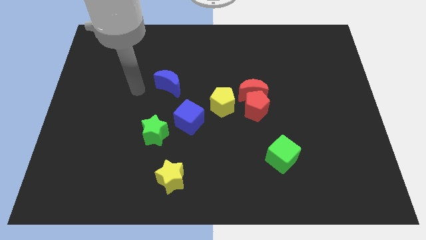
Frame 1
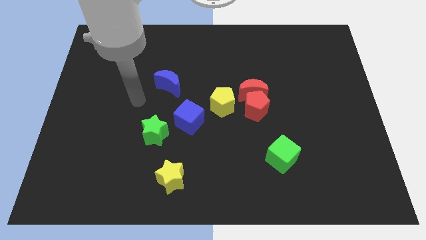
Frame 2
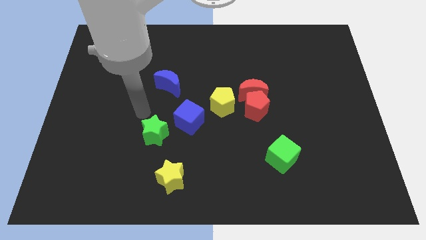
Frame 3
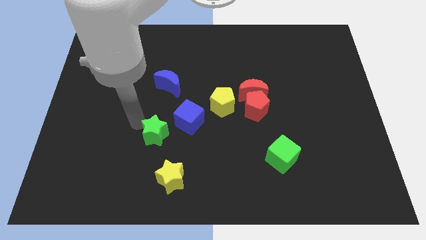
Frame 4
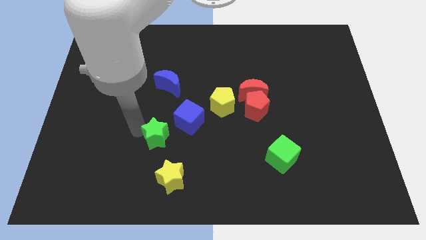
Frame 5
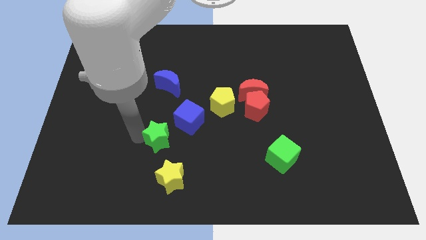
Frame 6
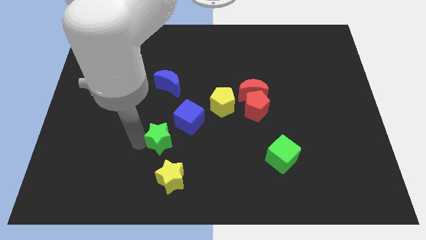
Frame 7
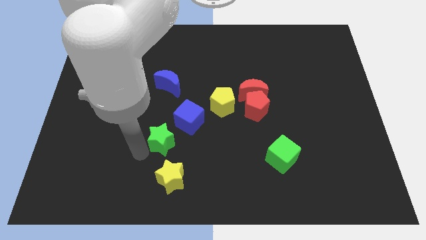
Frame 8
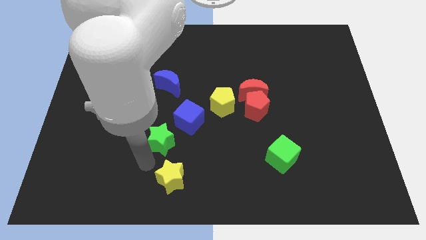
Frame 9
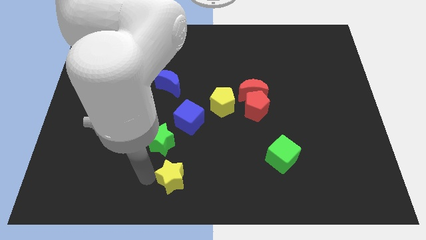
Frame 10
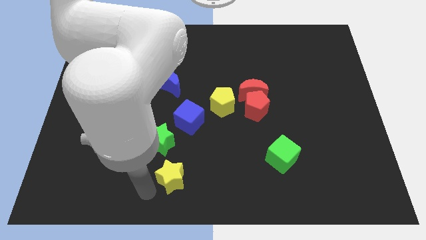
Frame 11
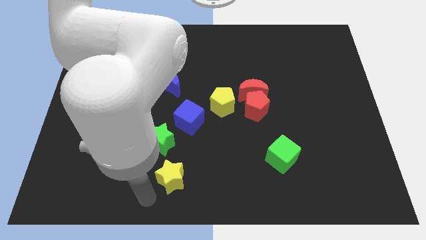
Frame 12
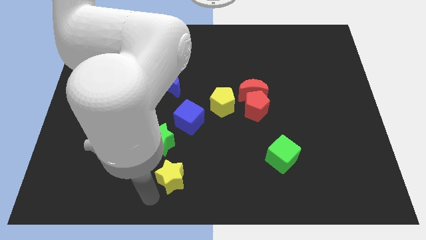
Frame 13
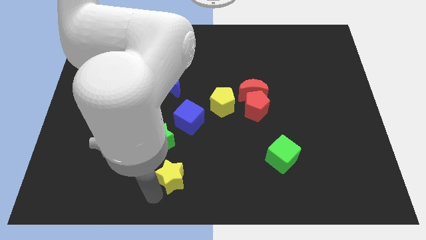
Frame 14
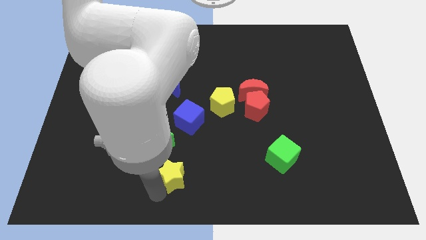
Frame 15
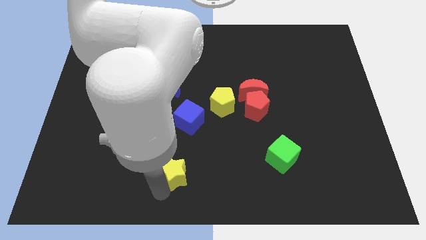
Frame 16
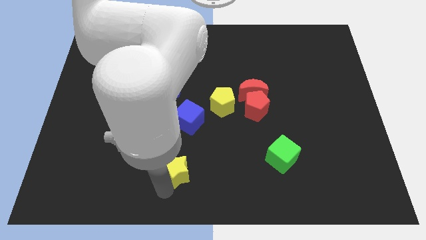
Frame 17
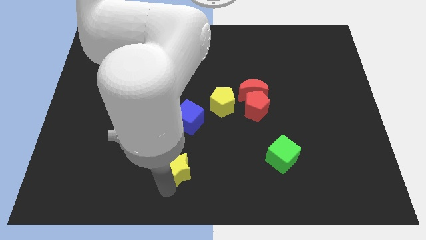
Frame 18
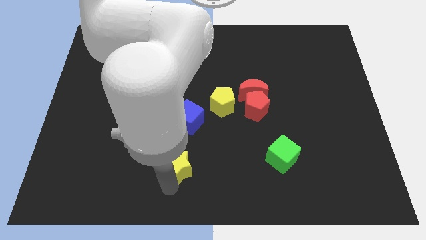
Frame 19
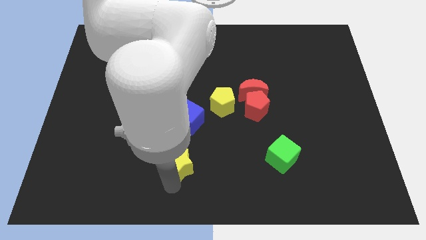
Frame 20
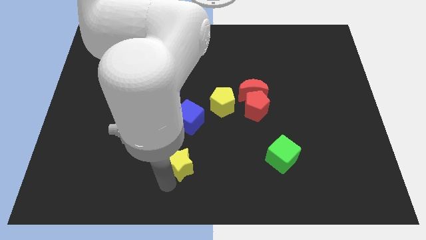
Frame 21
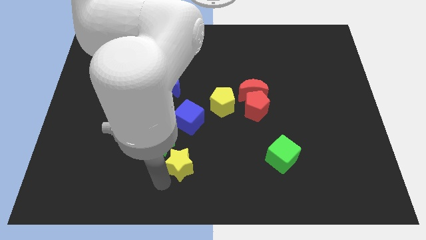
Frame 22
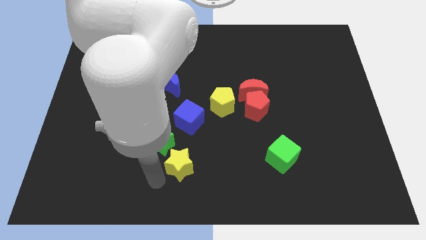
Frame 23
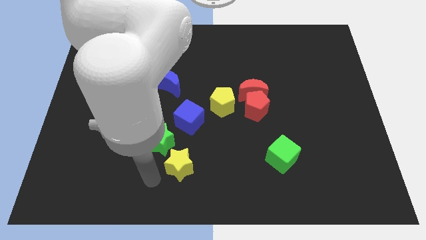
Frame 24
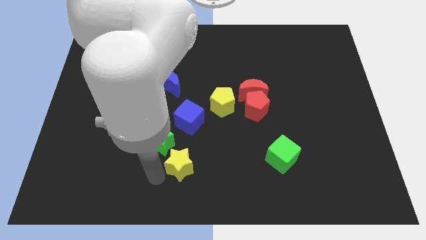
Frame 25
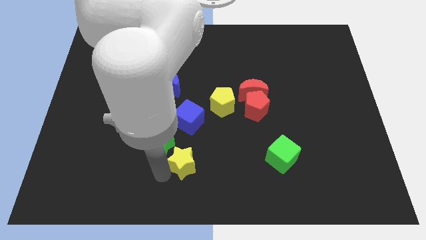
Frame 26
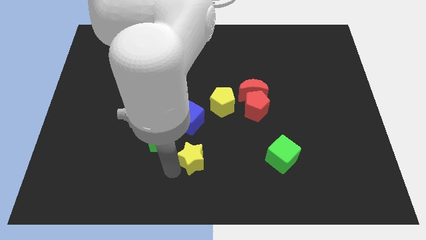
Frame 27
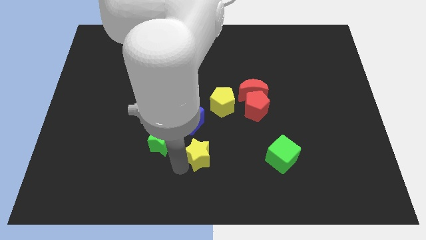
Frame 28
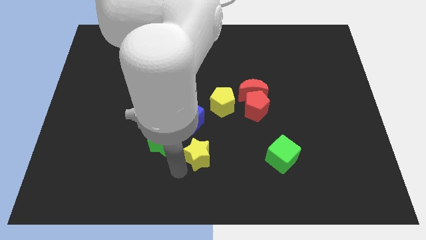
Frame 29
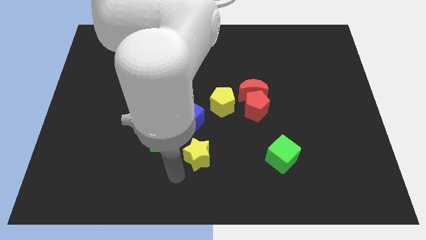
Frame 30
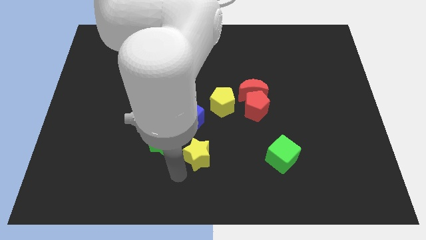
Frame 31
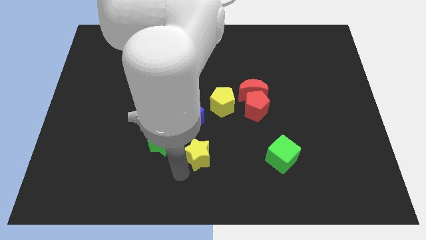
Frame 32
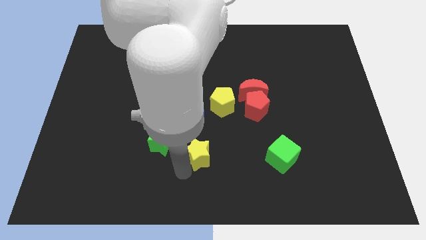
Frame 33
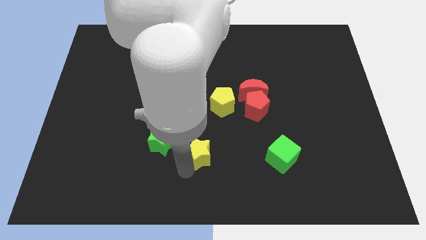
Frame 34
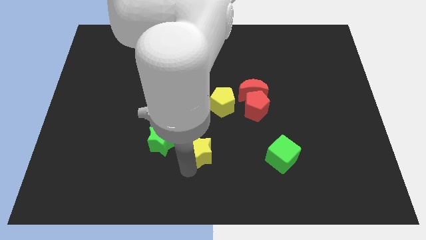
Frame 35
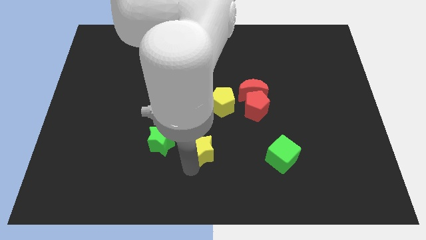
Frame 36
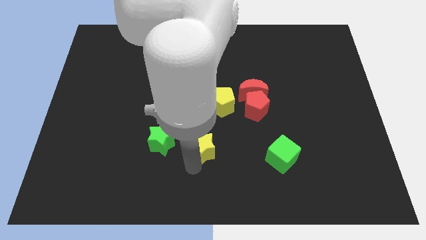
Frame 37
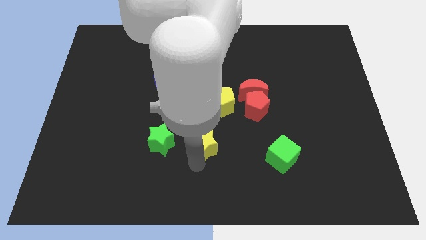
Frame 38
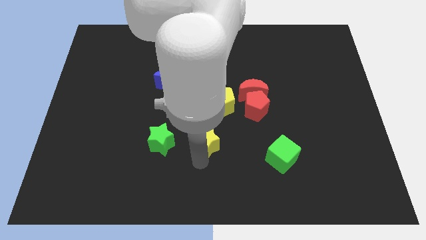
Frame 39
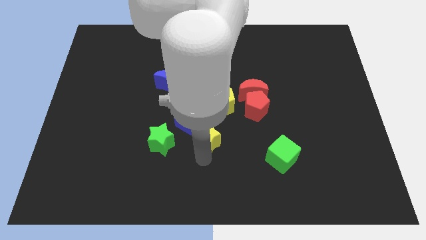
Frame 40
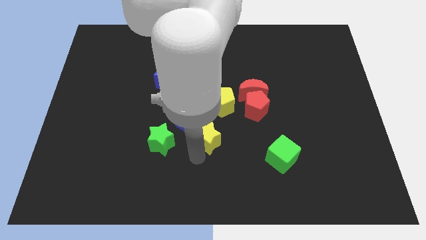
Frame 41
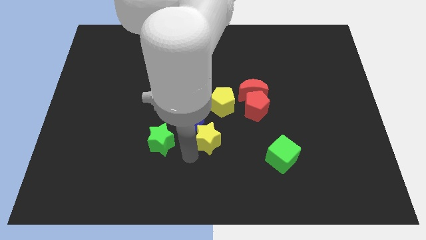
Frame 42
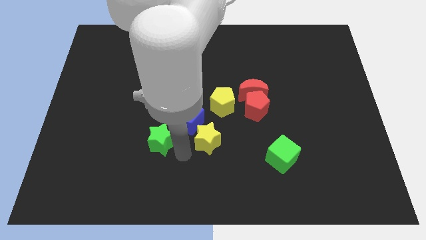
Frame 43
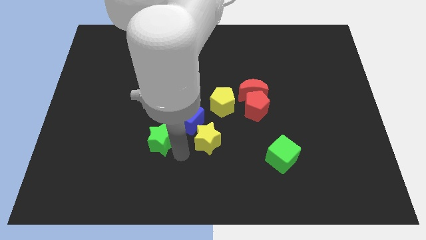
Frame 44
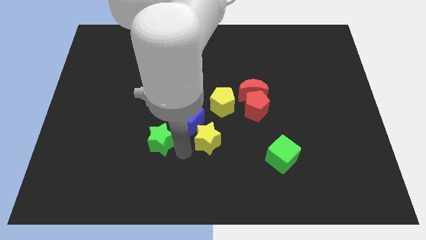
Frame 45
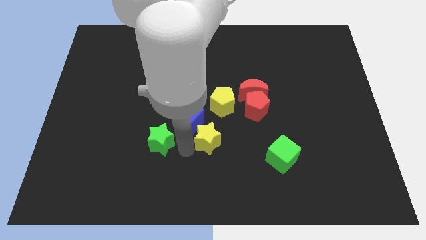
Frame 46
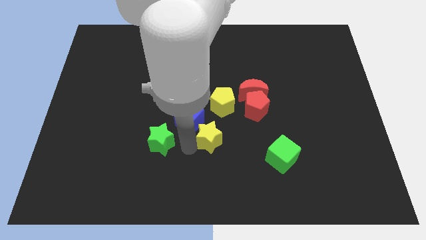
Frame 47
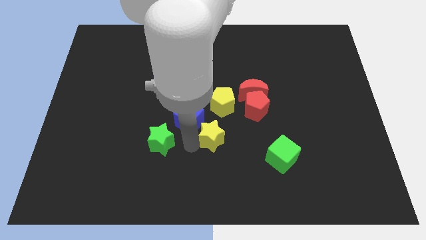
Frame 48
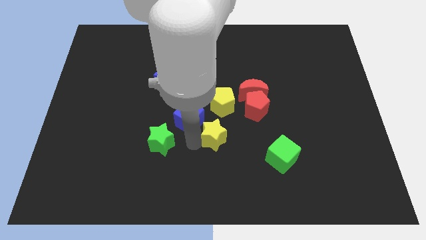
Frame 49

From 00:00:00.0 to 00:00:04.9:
put the yellow star to the bottom left side of the red pentagon

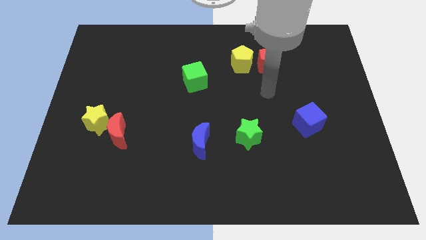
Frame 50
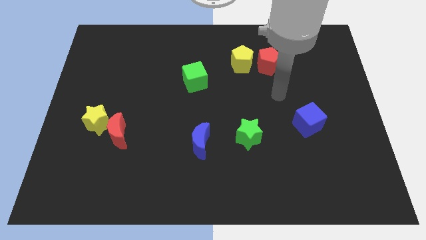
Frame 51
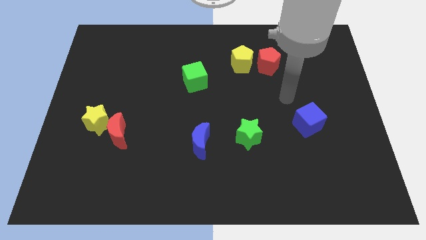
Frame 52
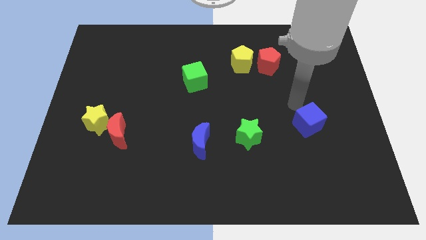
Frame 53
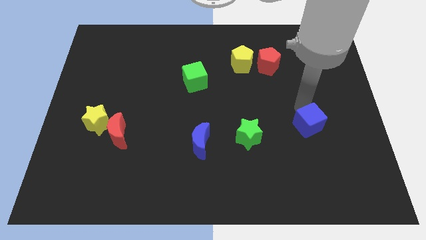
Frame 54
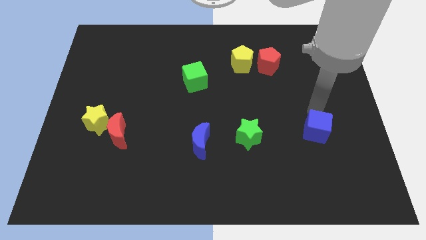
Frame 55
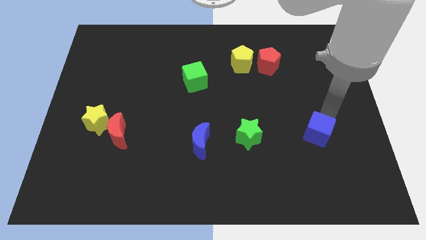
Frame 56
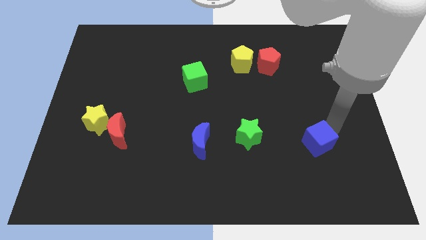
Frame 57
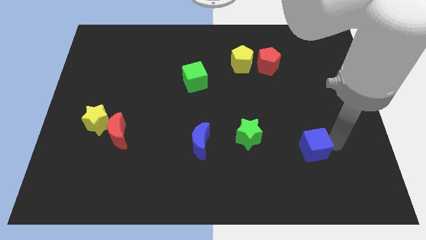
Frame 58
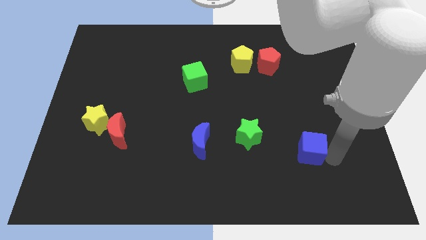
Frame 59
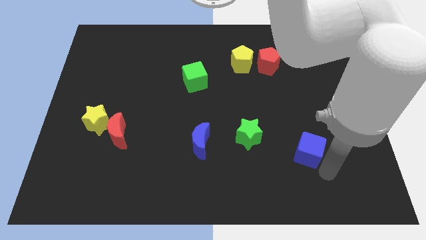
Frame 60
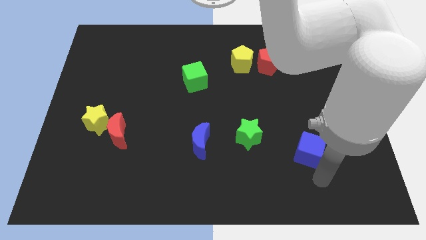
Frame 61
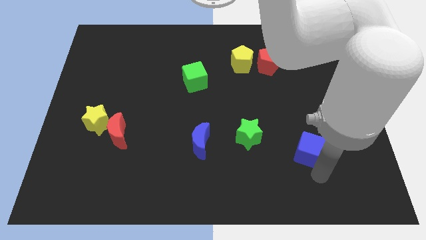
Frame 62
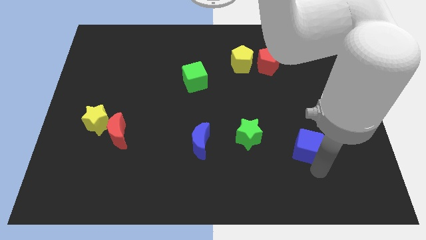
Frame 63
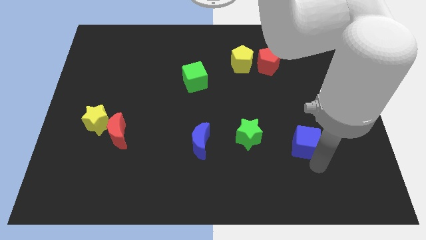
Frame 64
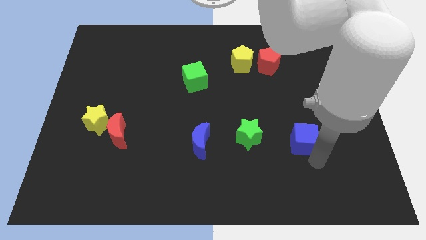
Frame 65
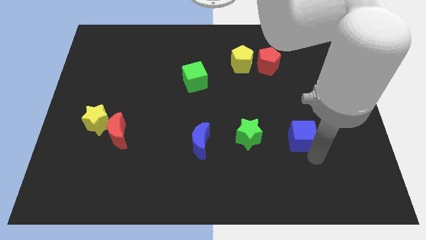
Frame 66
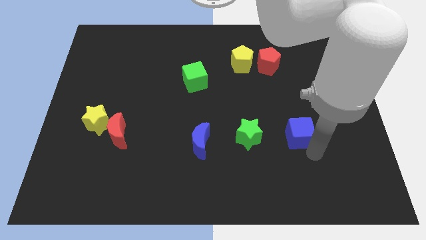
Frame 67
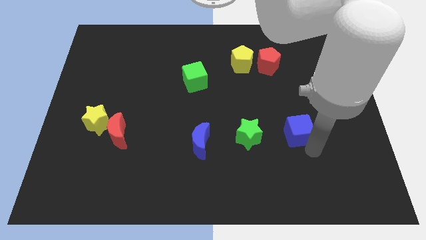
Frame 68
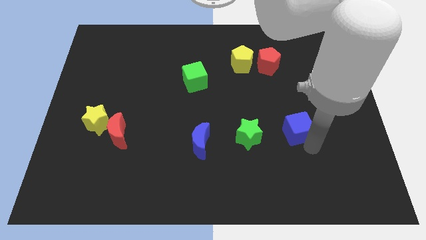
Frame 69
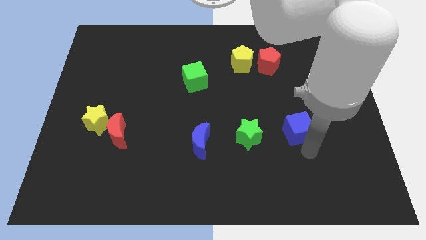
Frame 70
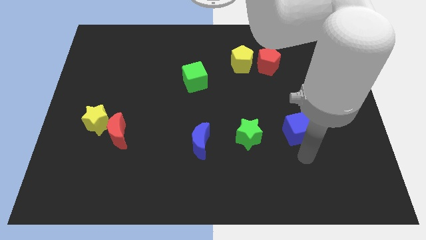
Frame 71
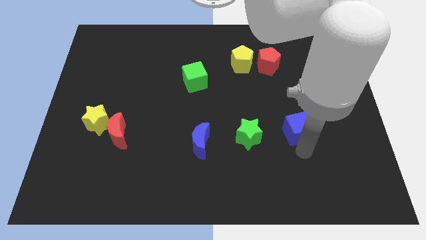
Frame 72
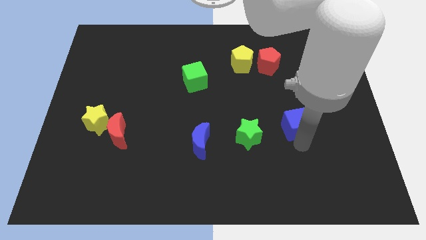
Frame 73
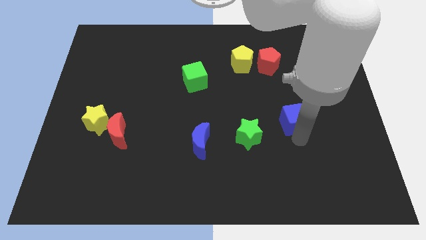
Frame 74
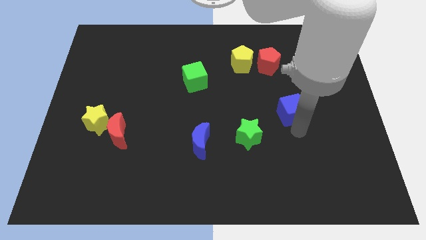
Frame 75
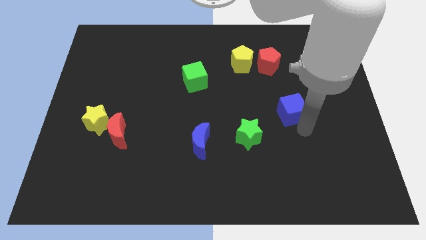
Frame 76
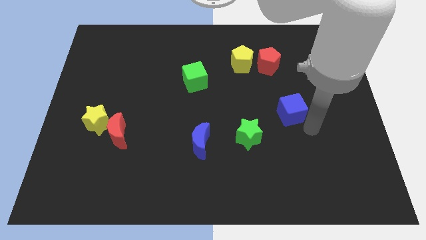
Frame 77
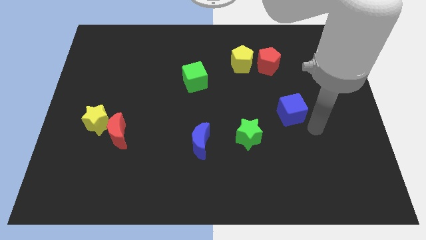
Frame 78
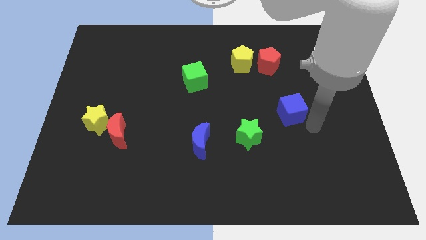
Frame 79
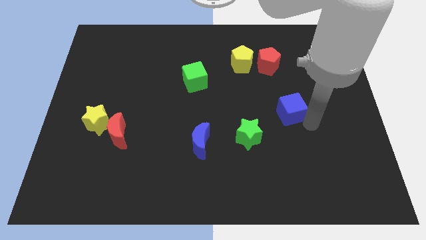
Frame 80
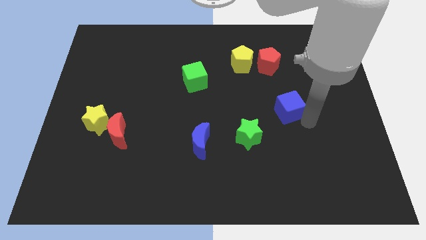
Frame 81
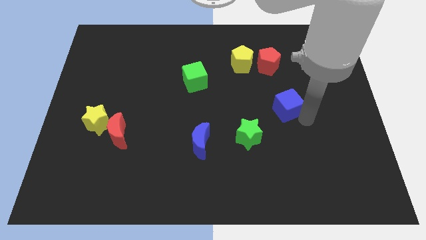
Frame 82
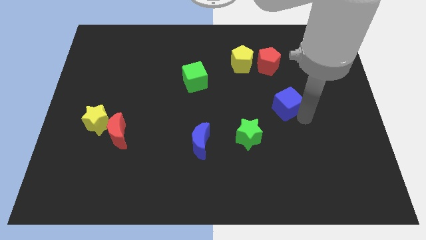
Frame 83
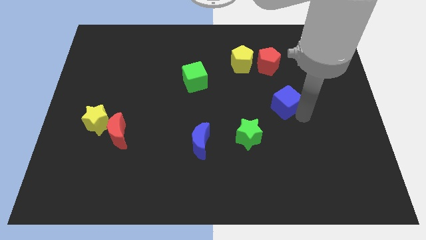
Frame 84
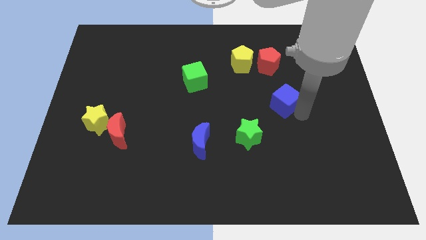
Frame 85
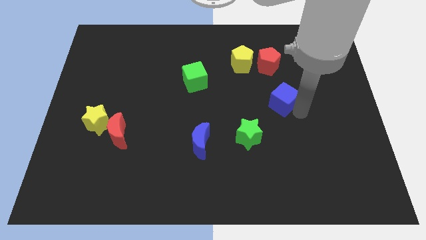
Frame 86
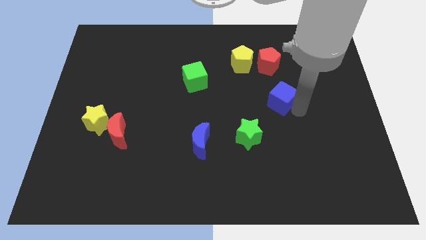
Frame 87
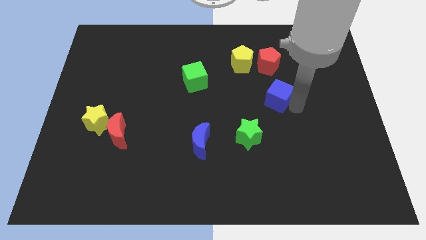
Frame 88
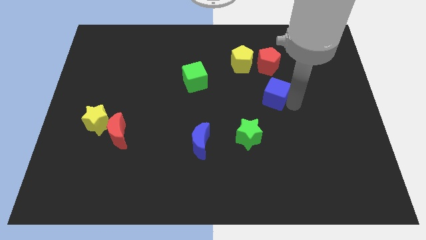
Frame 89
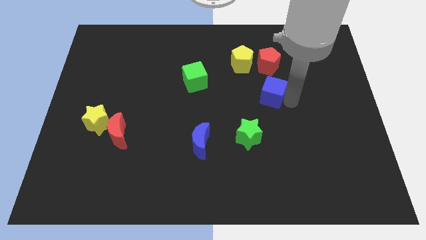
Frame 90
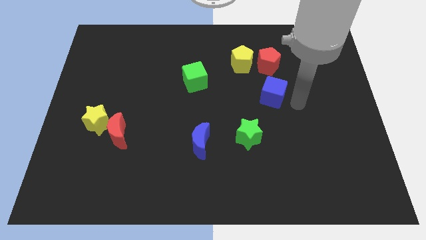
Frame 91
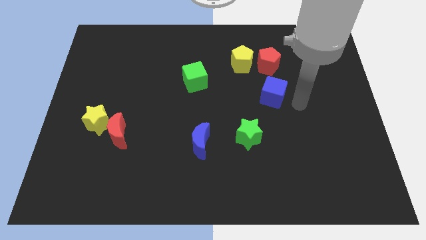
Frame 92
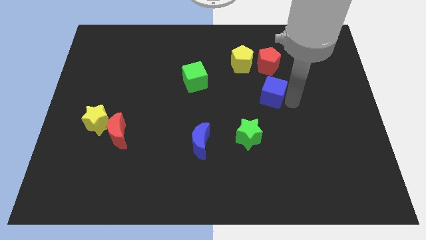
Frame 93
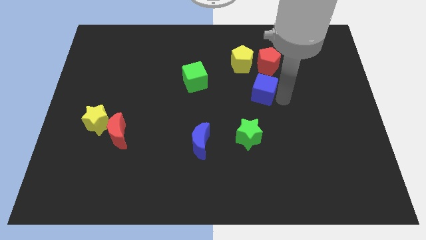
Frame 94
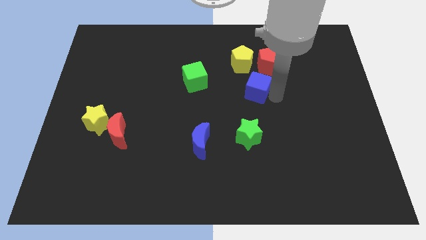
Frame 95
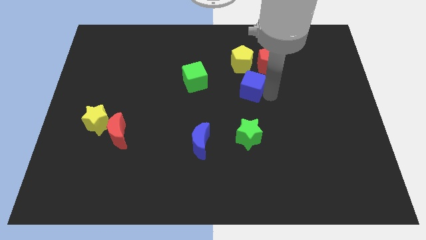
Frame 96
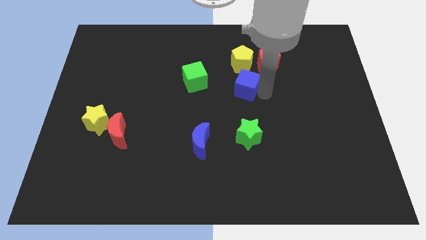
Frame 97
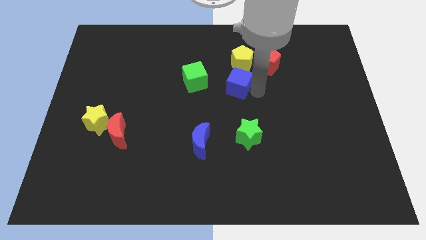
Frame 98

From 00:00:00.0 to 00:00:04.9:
push the blue cube to the bottom left side of the yellow pentagon
